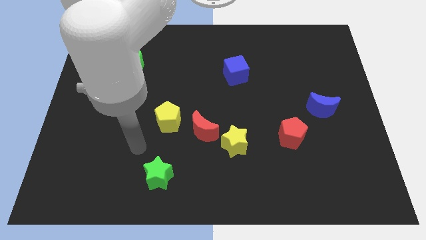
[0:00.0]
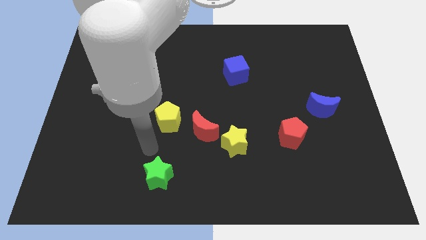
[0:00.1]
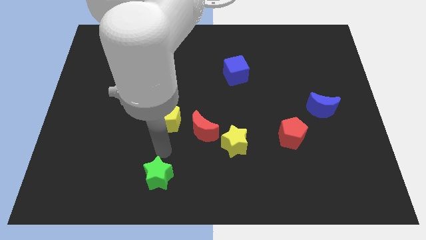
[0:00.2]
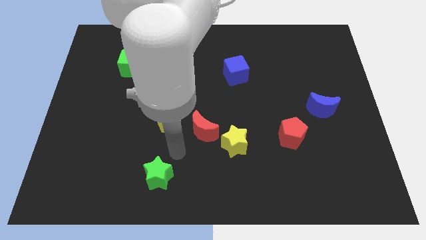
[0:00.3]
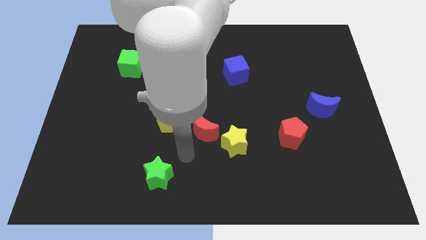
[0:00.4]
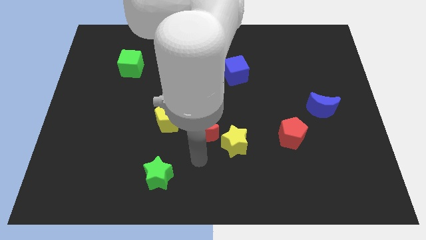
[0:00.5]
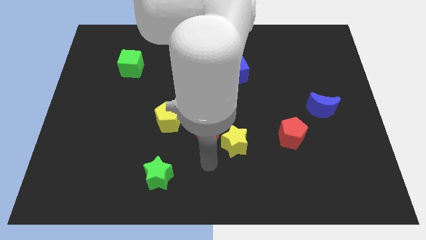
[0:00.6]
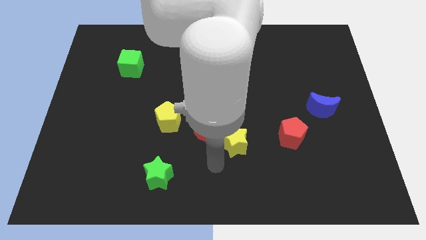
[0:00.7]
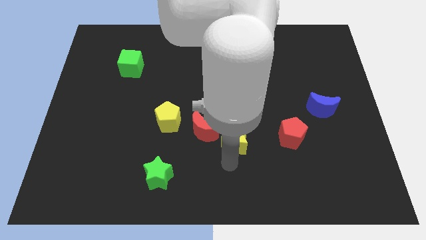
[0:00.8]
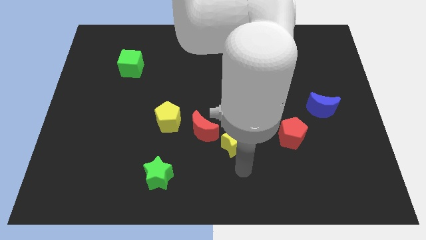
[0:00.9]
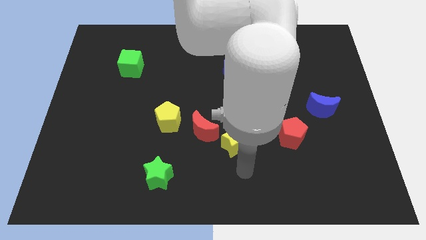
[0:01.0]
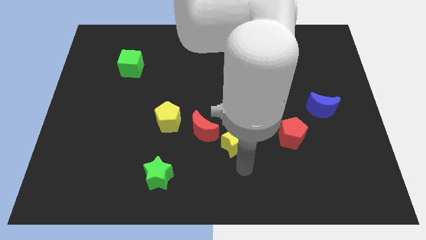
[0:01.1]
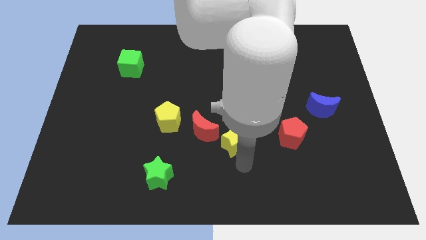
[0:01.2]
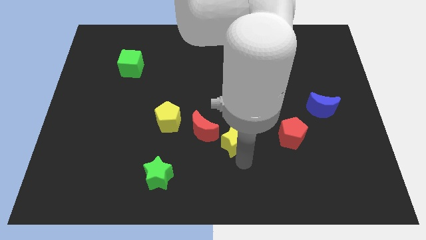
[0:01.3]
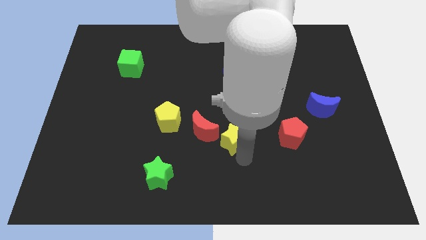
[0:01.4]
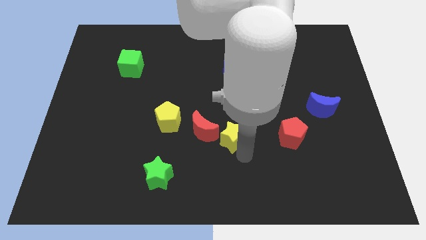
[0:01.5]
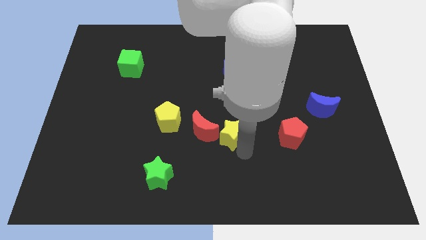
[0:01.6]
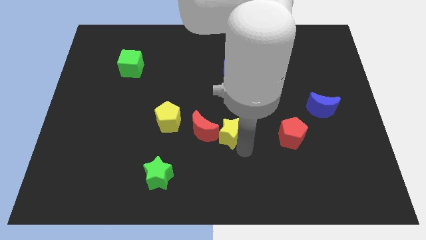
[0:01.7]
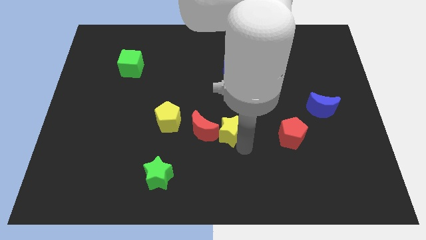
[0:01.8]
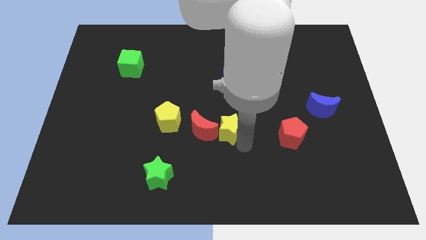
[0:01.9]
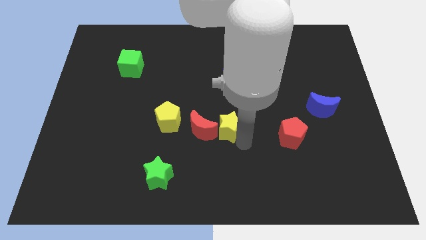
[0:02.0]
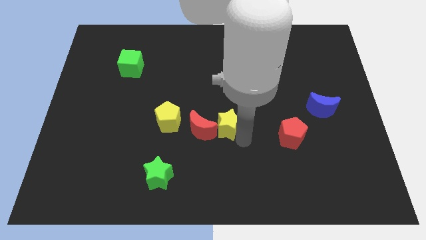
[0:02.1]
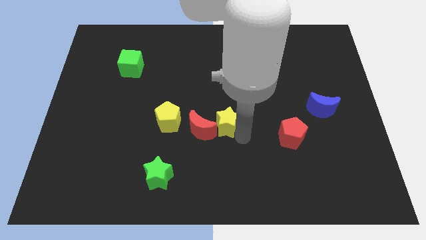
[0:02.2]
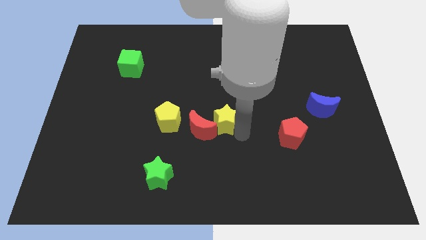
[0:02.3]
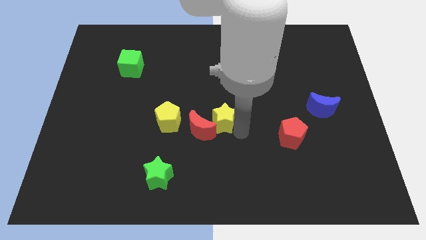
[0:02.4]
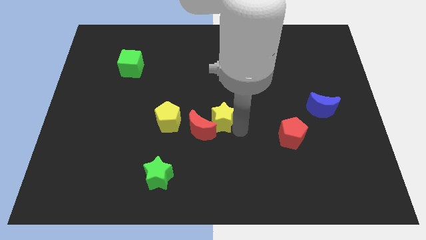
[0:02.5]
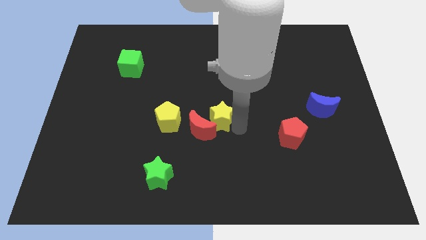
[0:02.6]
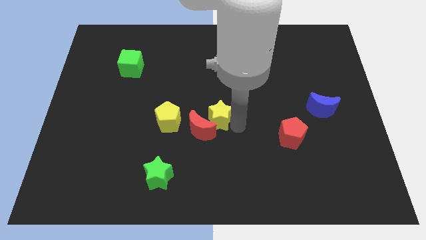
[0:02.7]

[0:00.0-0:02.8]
move the yellow star upwards and to the left diagonally slightly

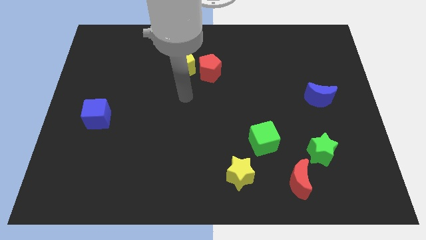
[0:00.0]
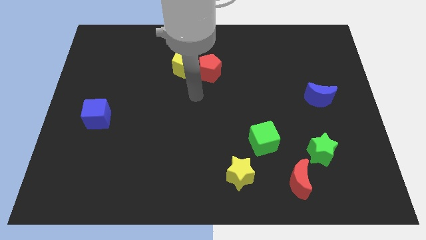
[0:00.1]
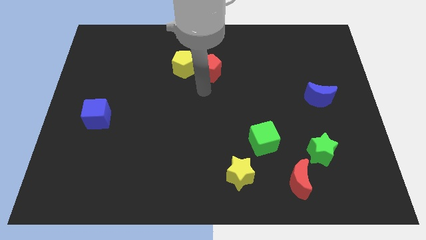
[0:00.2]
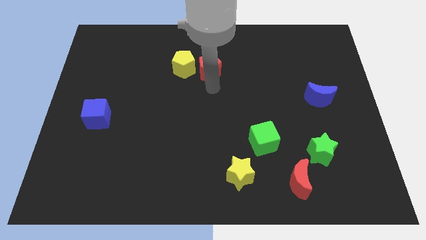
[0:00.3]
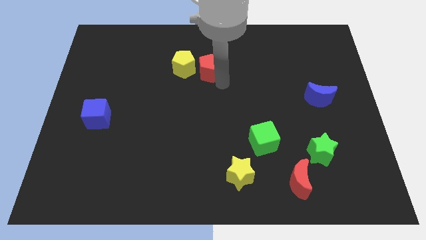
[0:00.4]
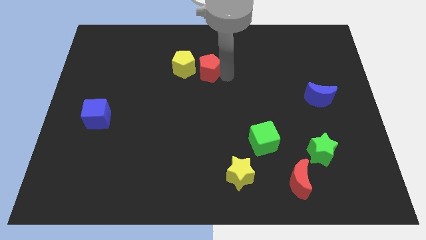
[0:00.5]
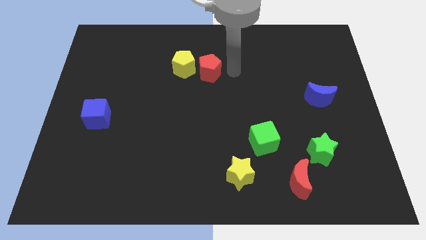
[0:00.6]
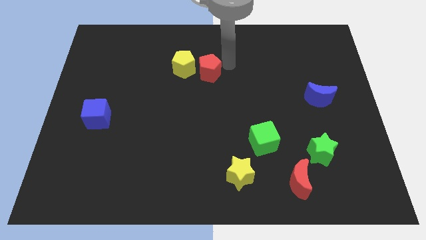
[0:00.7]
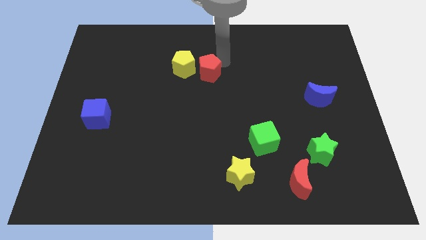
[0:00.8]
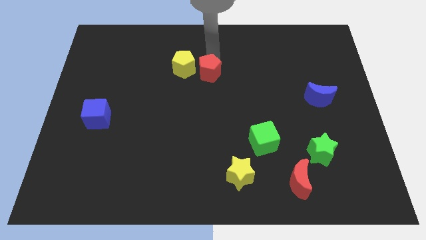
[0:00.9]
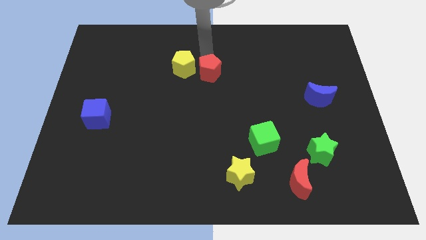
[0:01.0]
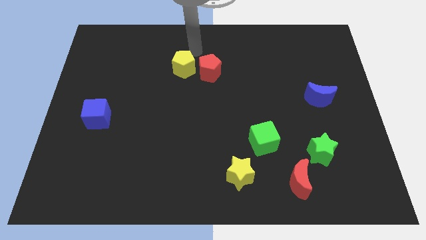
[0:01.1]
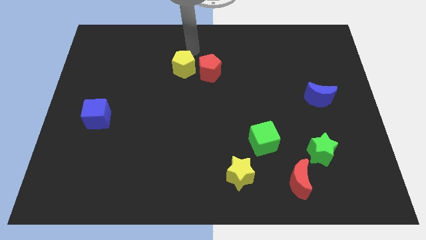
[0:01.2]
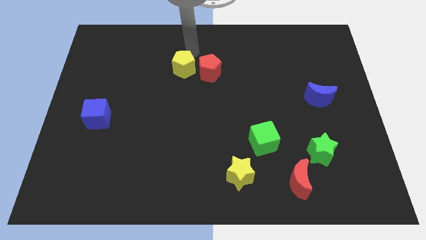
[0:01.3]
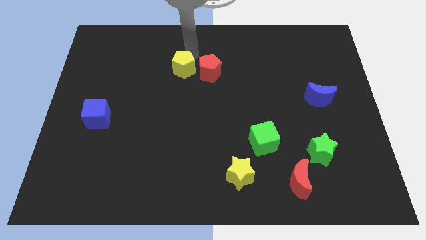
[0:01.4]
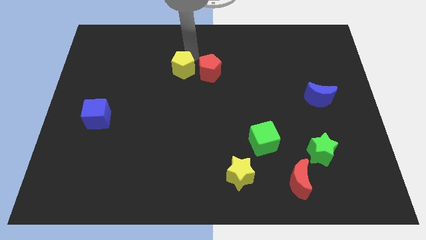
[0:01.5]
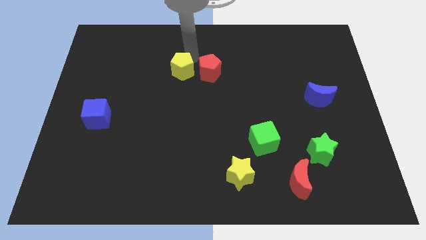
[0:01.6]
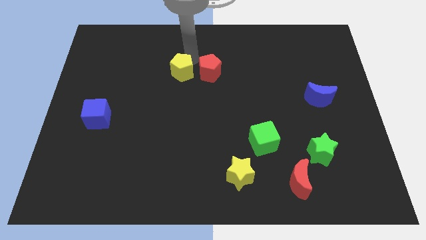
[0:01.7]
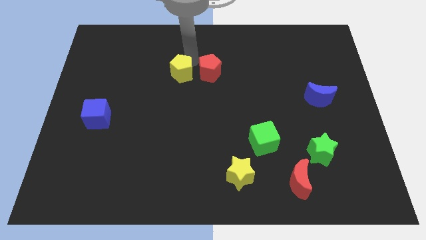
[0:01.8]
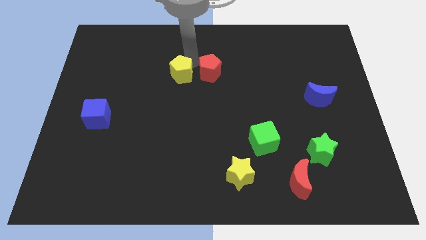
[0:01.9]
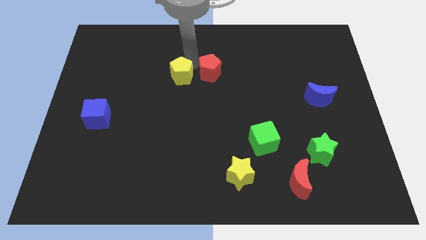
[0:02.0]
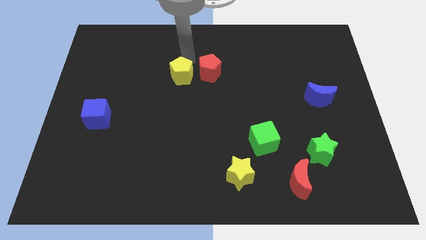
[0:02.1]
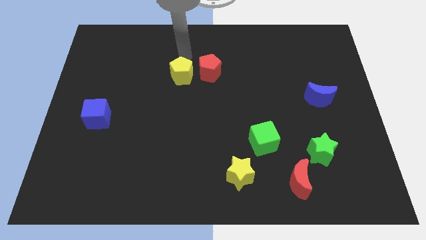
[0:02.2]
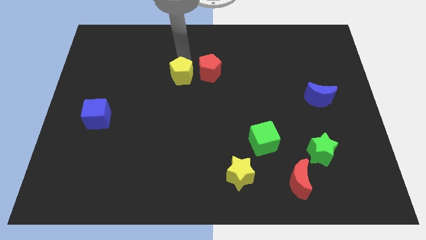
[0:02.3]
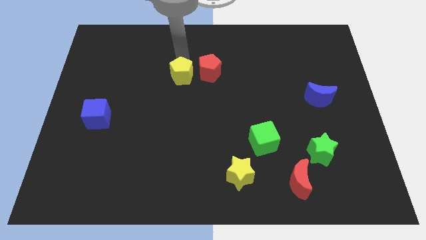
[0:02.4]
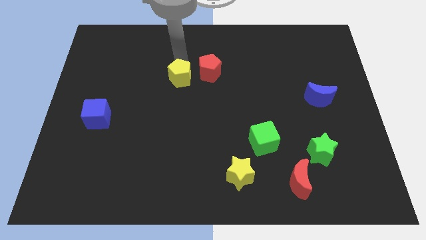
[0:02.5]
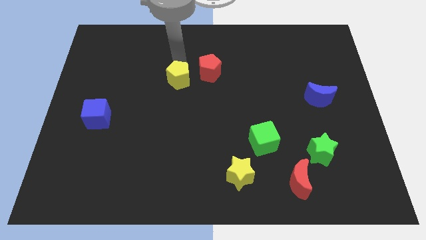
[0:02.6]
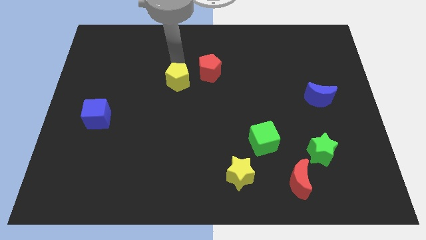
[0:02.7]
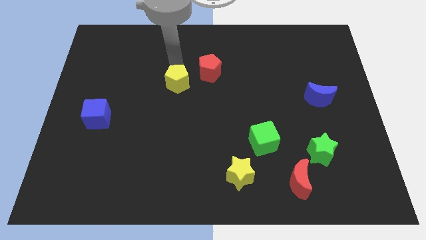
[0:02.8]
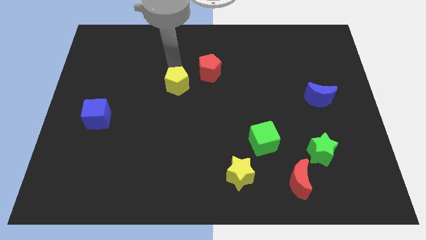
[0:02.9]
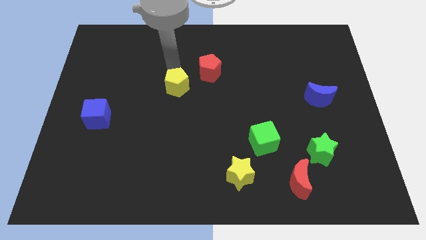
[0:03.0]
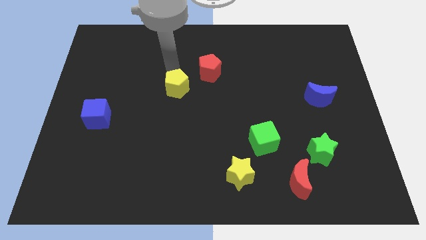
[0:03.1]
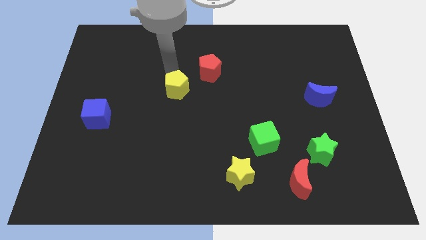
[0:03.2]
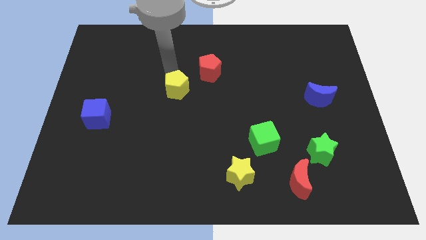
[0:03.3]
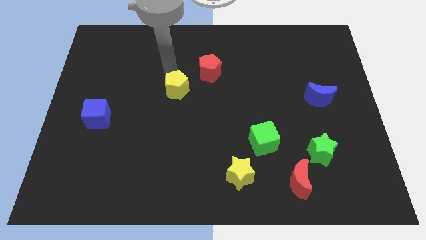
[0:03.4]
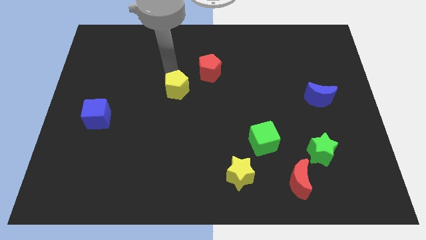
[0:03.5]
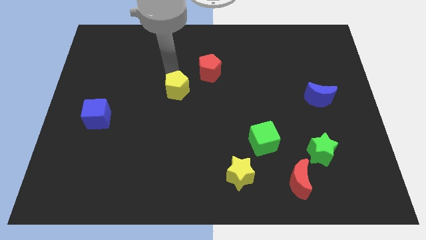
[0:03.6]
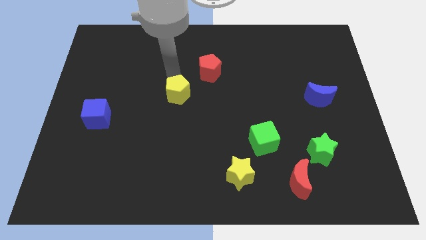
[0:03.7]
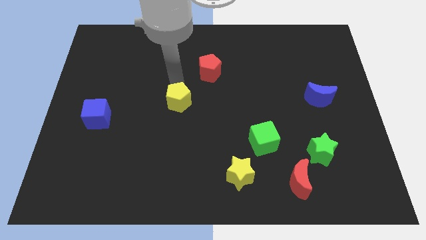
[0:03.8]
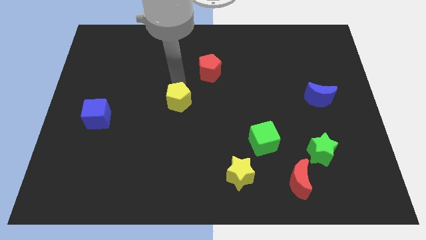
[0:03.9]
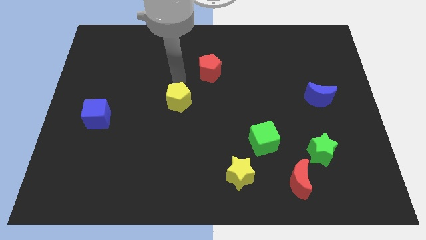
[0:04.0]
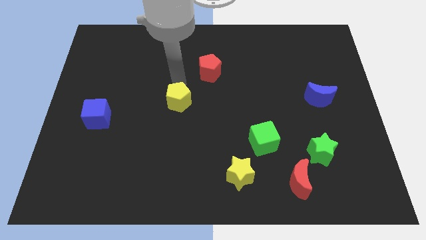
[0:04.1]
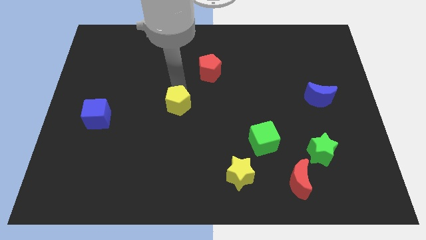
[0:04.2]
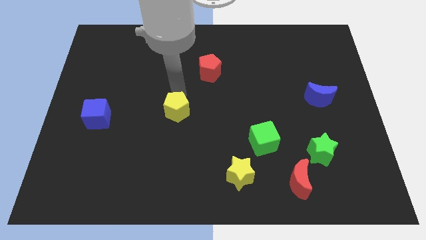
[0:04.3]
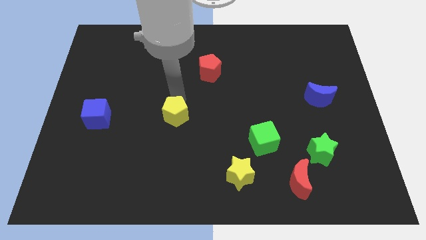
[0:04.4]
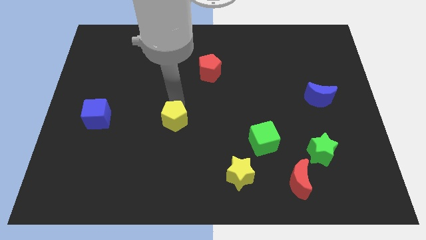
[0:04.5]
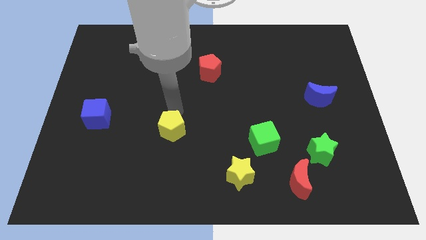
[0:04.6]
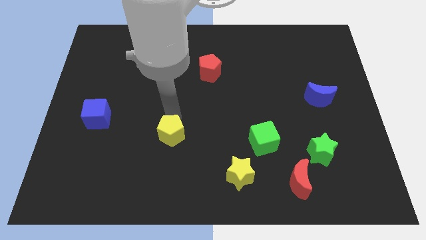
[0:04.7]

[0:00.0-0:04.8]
push the yellow pentagon down
